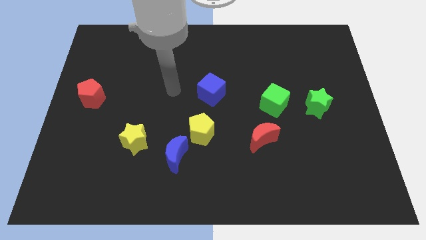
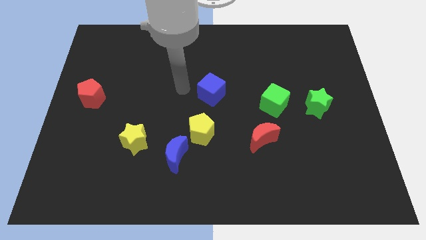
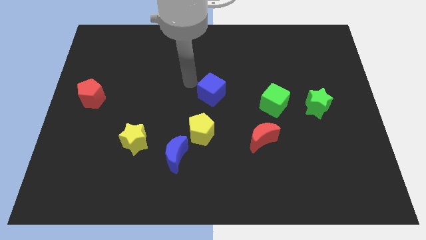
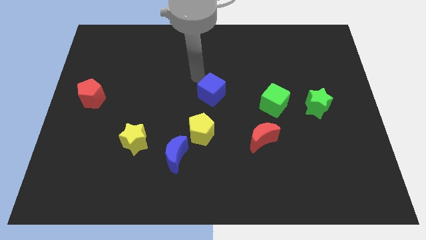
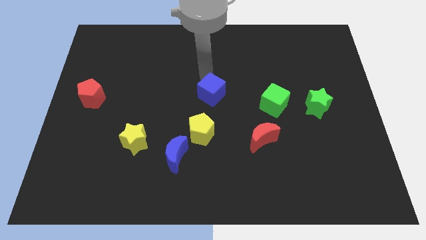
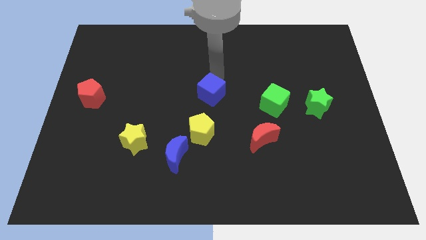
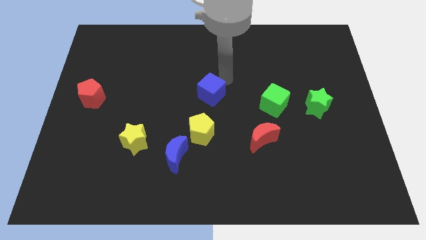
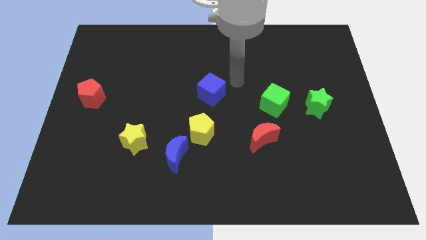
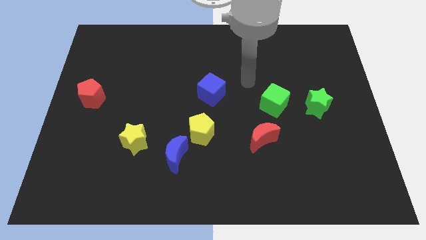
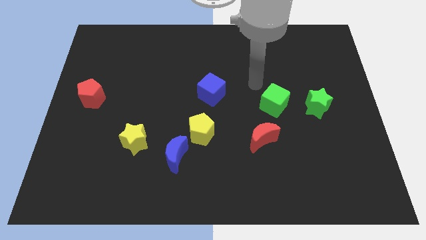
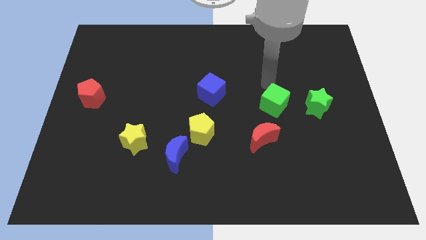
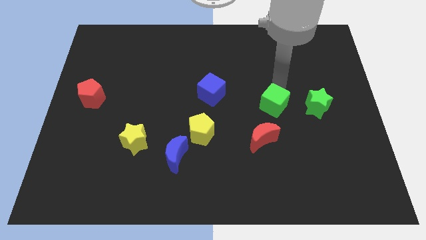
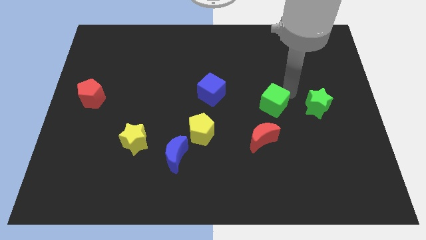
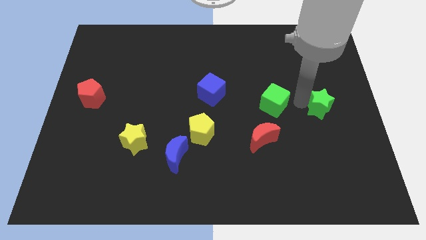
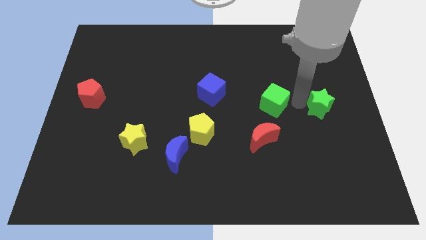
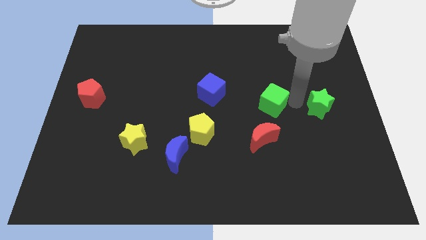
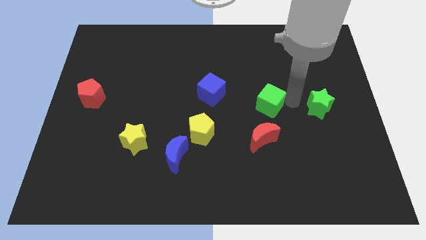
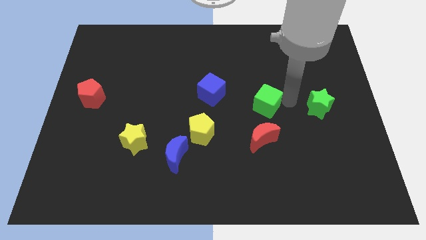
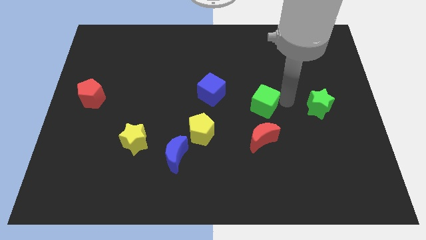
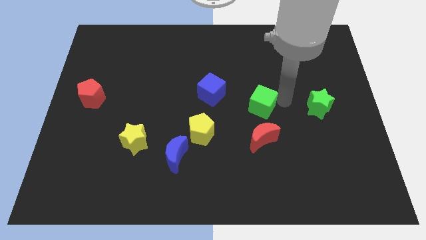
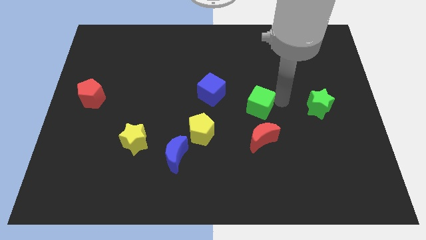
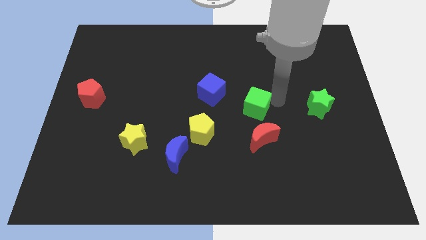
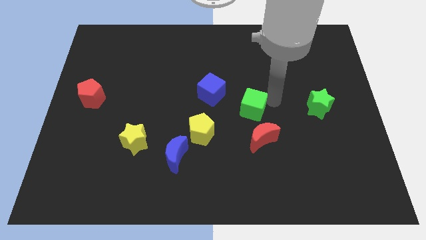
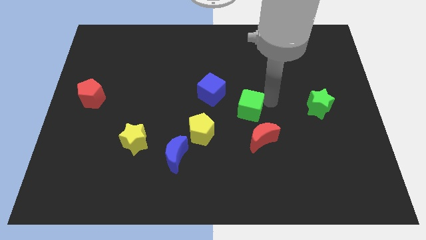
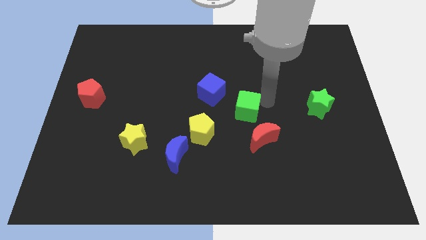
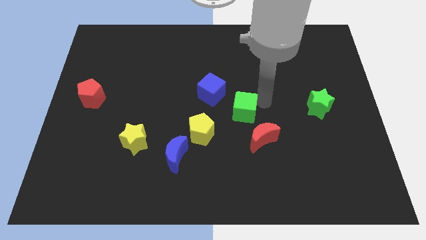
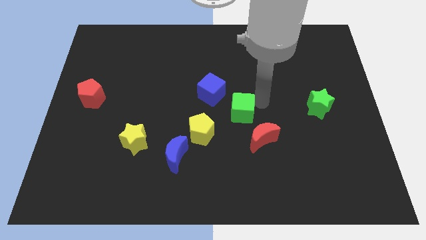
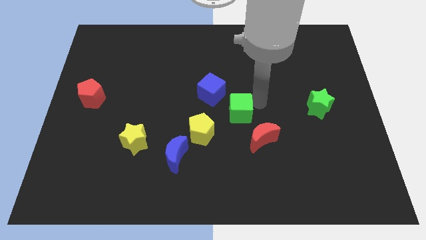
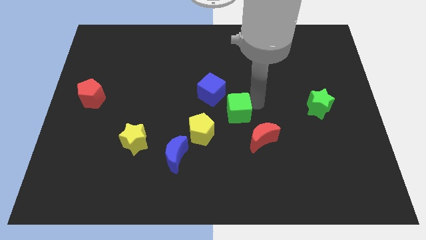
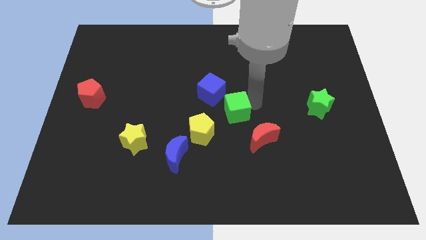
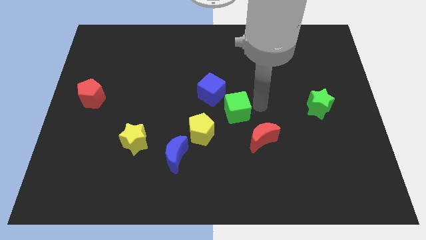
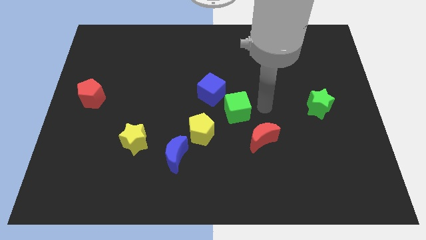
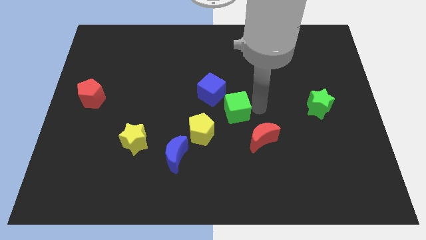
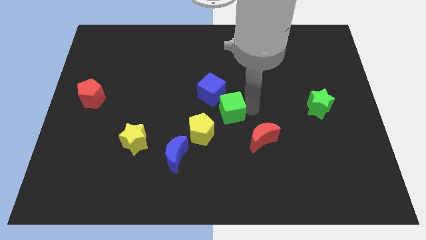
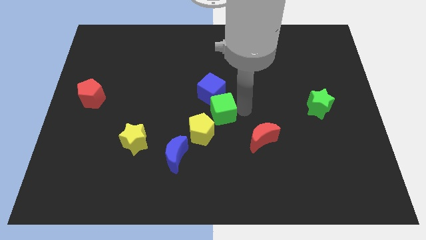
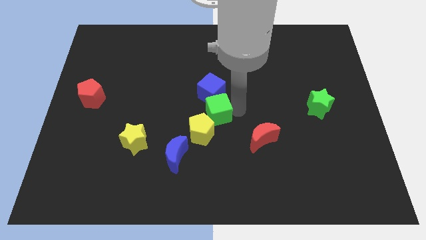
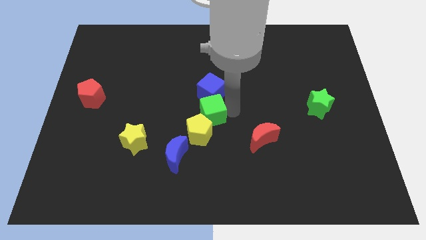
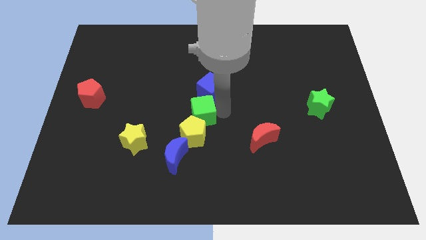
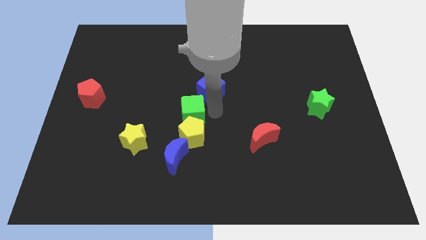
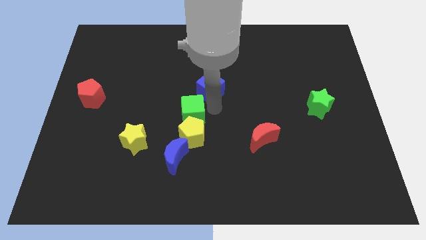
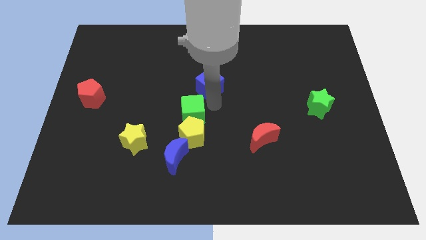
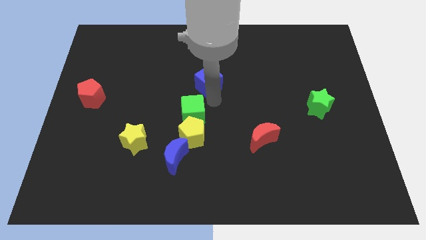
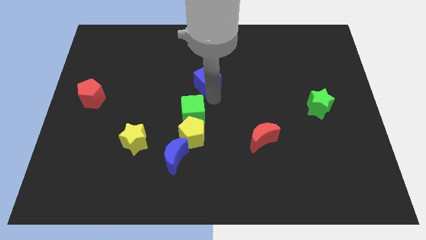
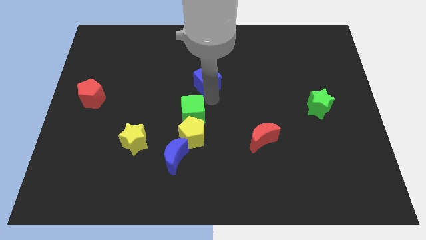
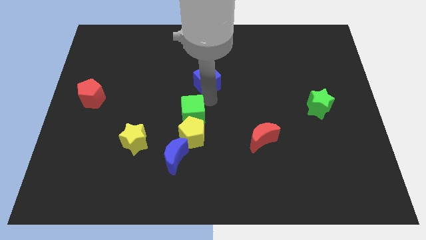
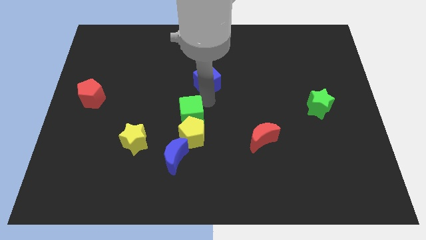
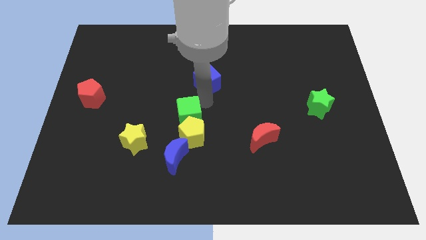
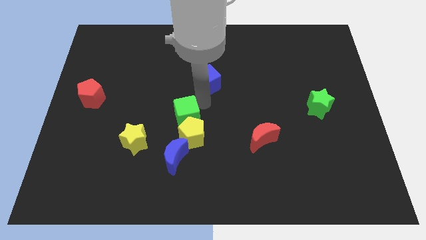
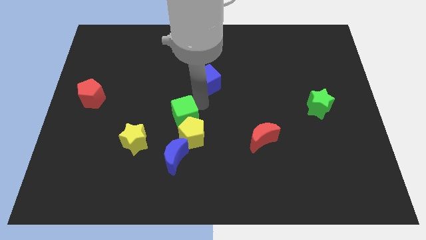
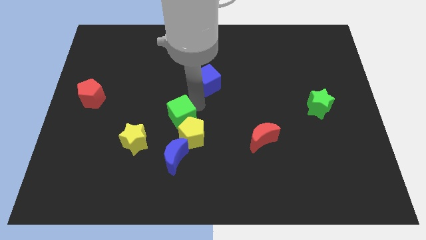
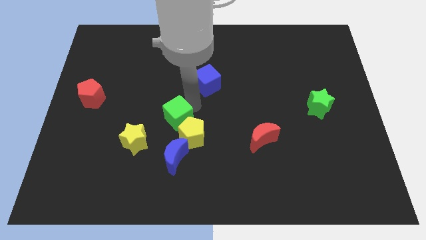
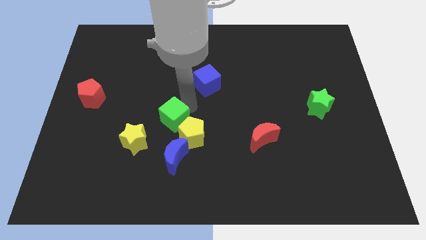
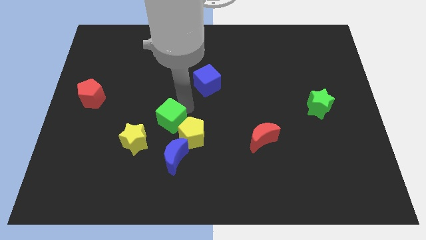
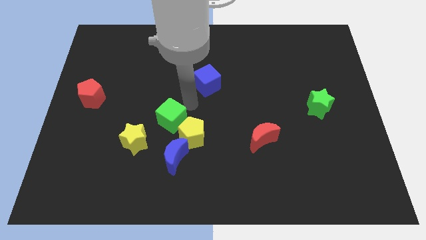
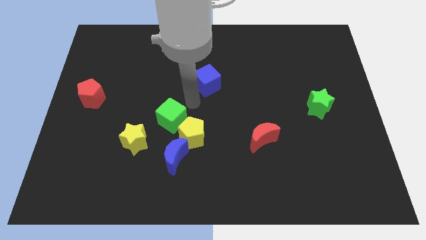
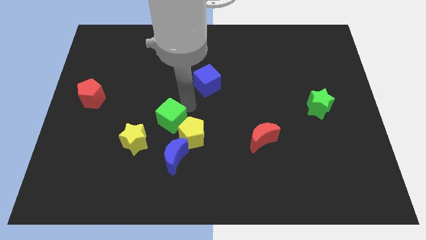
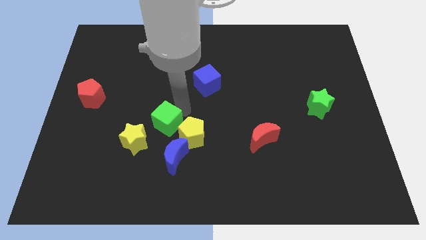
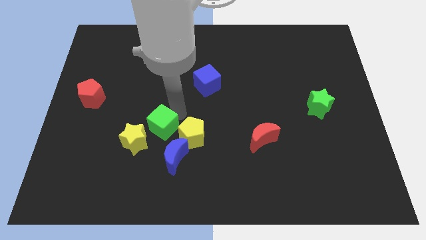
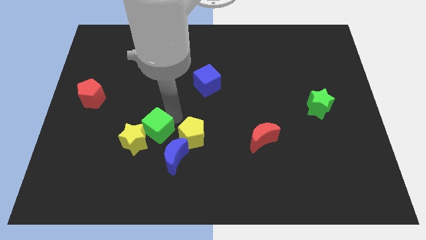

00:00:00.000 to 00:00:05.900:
slide the green cube close to the yellow star

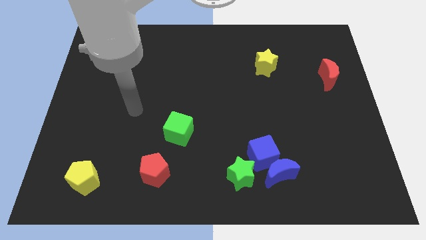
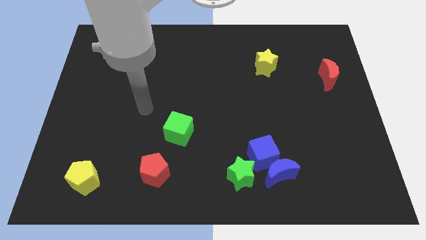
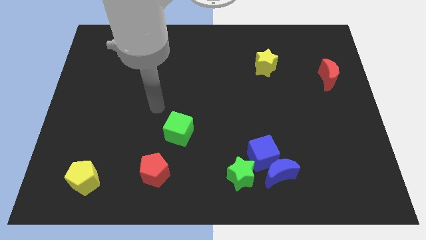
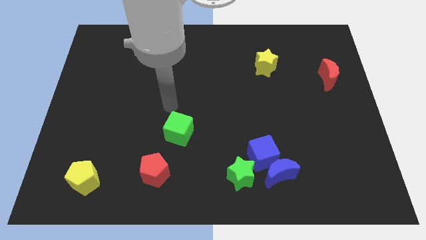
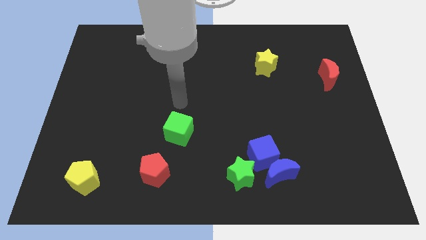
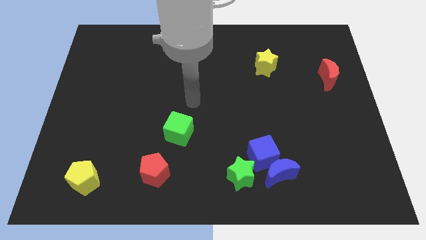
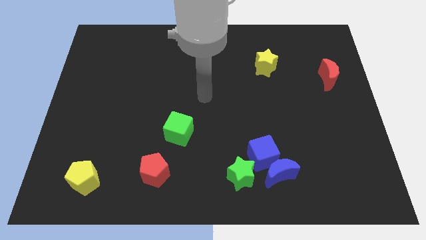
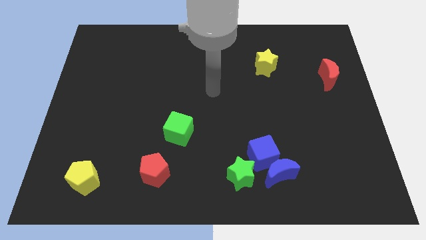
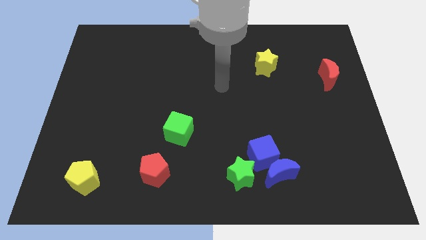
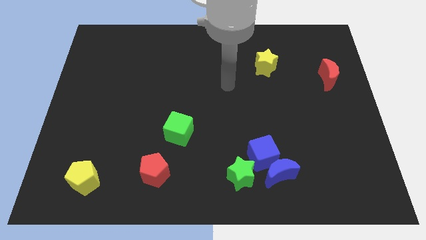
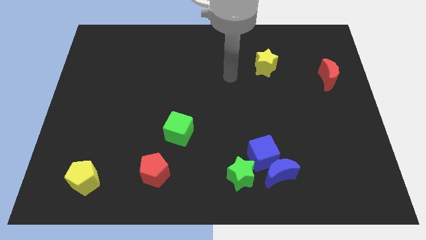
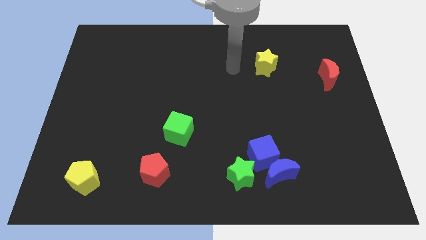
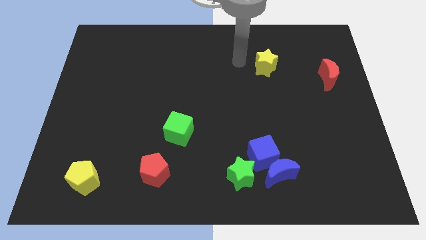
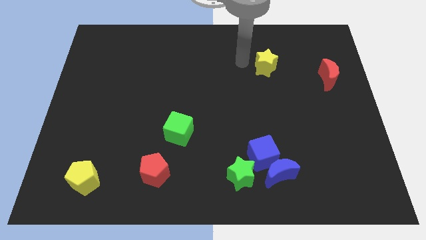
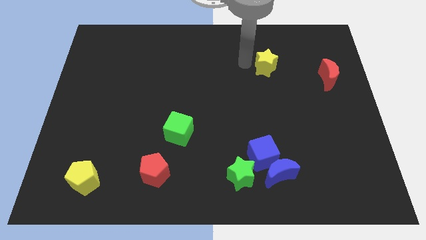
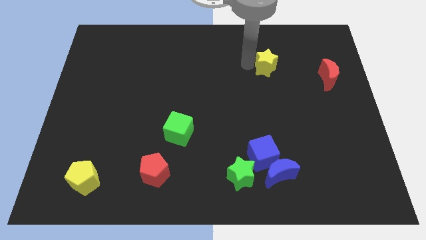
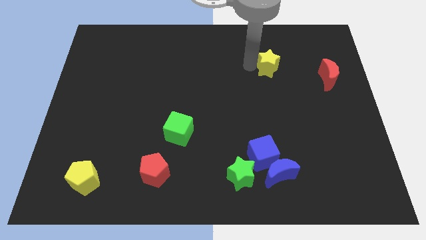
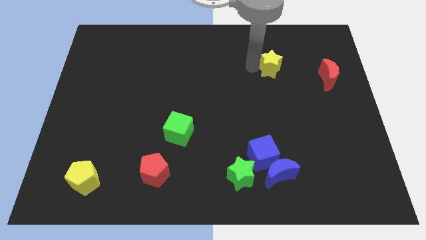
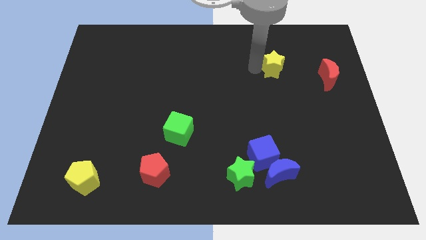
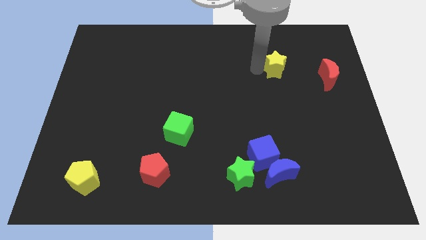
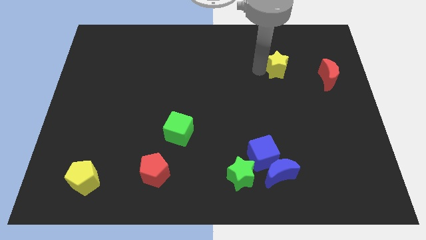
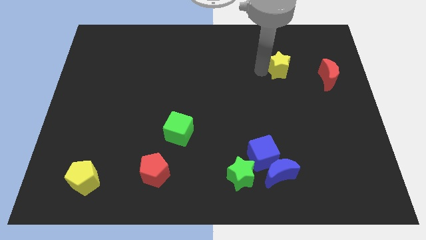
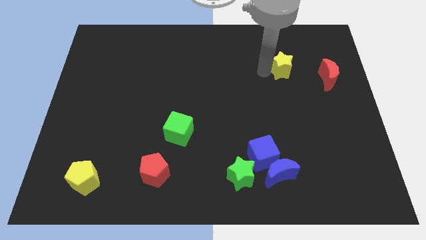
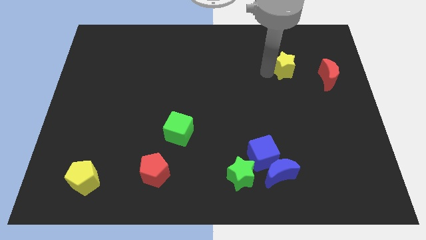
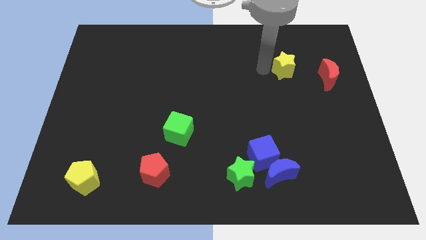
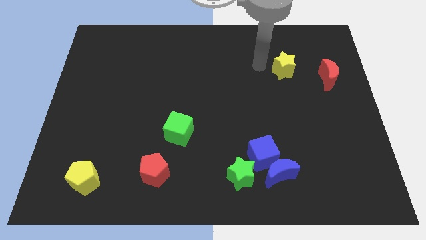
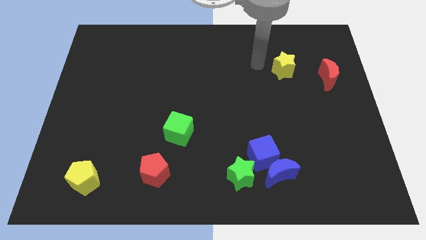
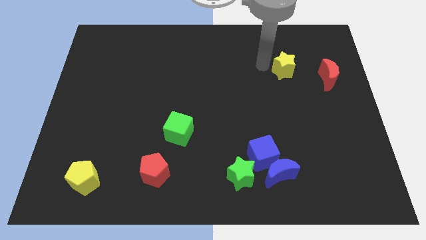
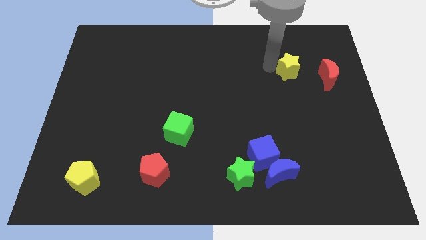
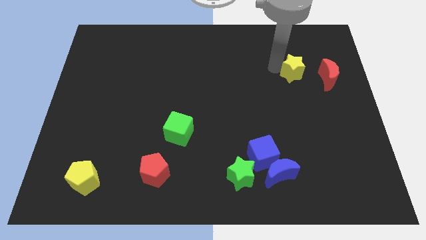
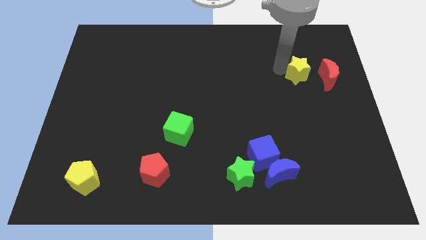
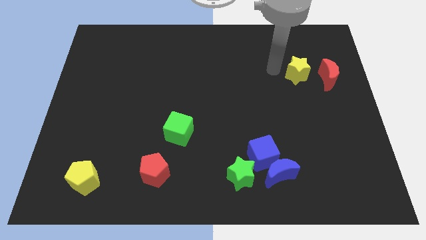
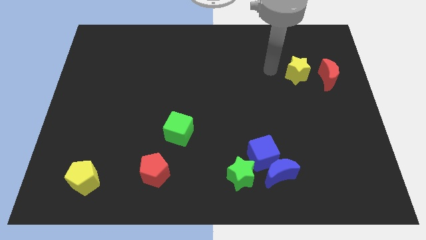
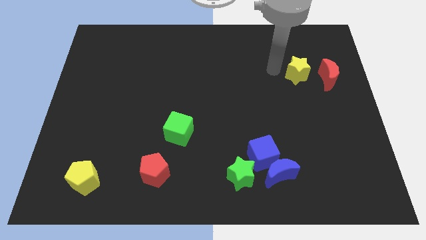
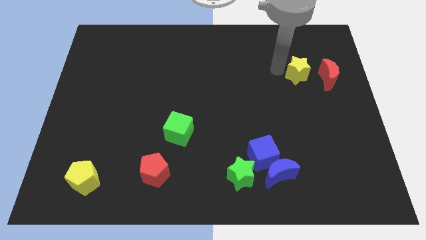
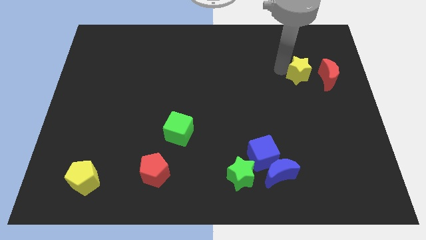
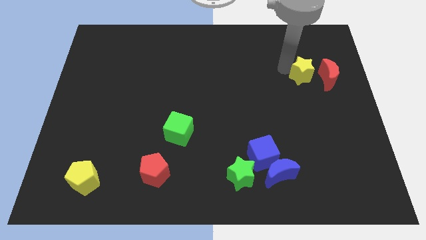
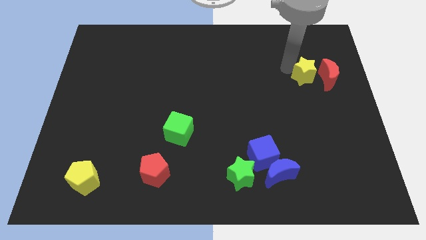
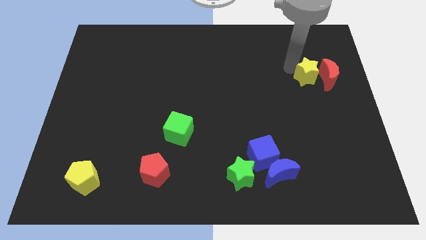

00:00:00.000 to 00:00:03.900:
move the yellow star close to the red moon
